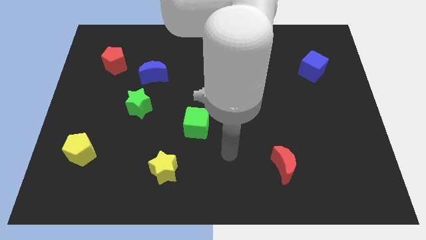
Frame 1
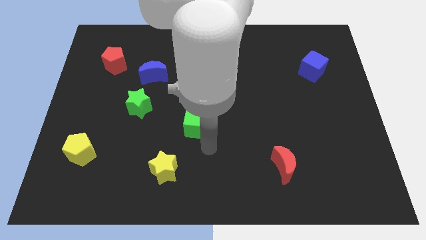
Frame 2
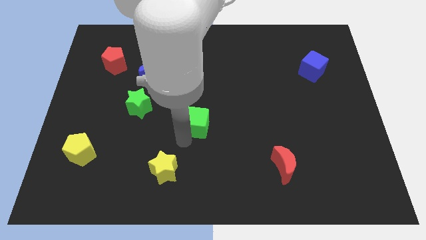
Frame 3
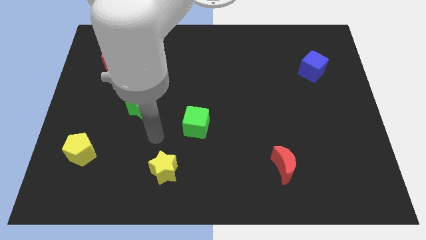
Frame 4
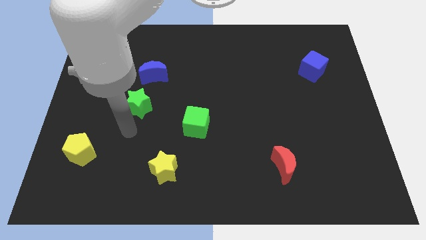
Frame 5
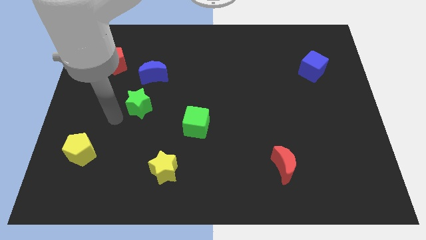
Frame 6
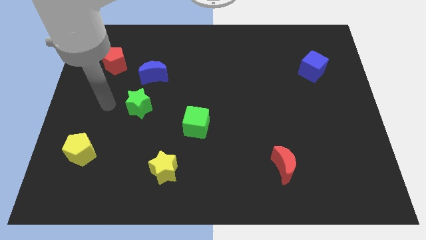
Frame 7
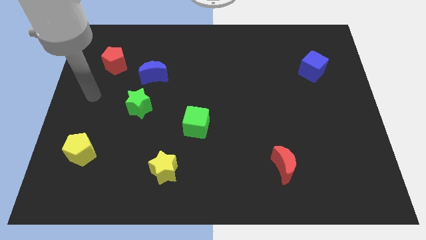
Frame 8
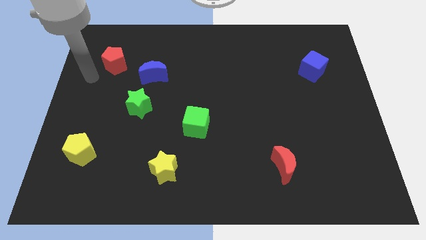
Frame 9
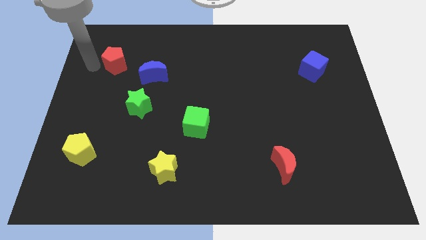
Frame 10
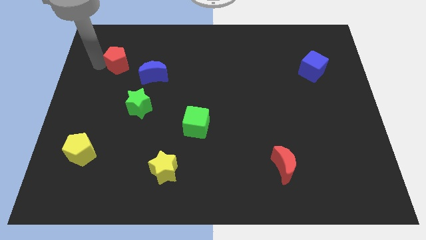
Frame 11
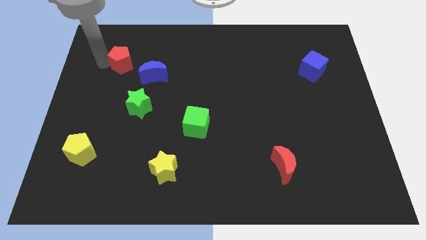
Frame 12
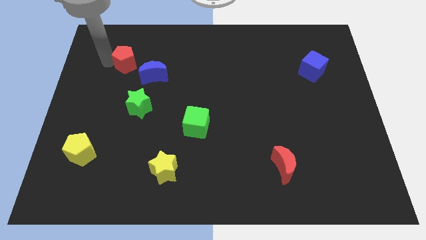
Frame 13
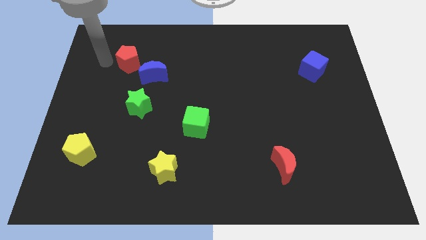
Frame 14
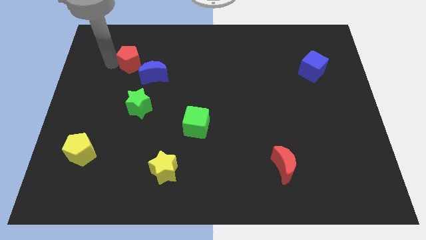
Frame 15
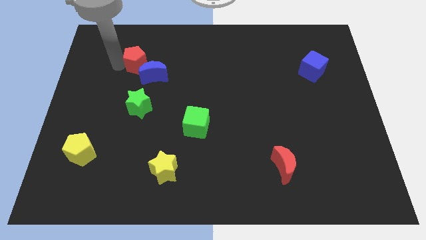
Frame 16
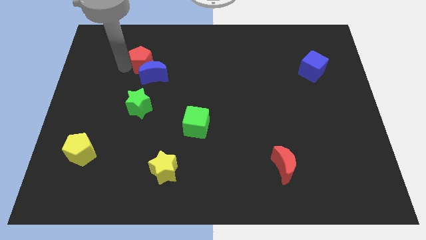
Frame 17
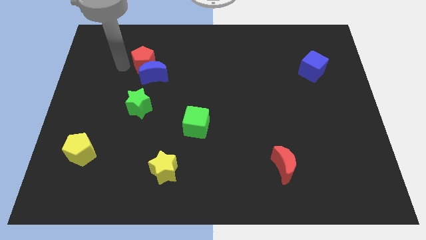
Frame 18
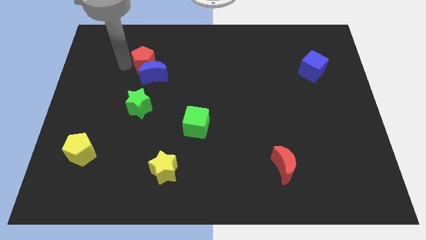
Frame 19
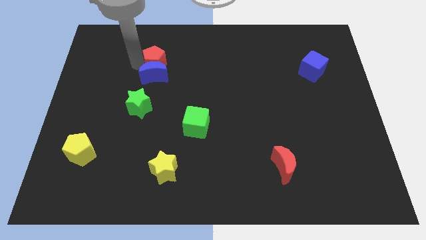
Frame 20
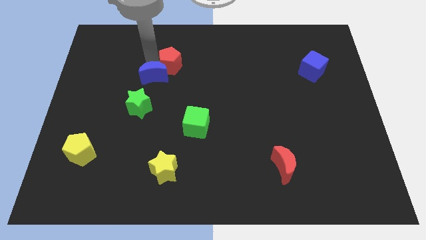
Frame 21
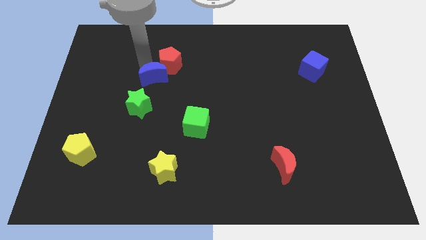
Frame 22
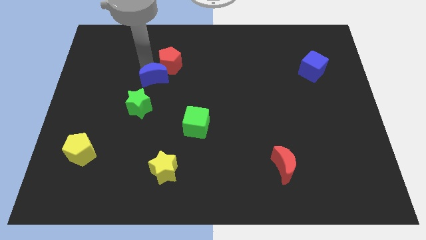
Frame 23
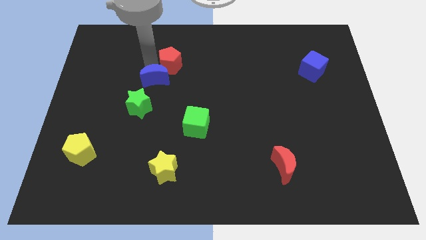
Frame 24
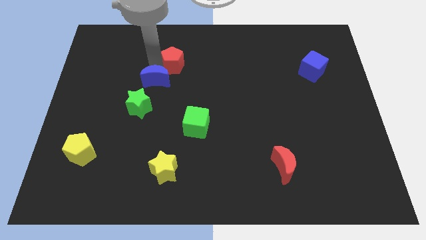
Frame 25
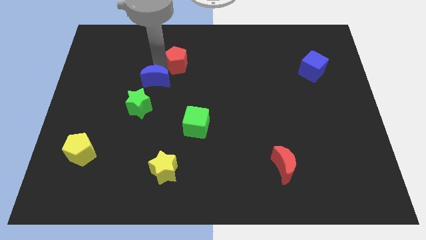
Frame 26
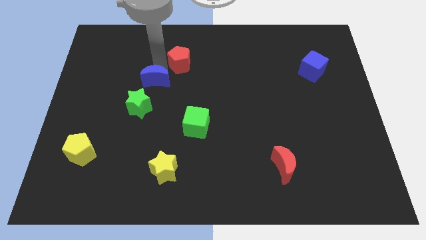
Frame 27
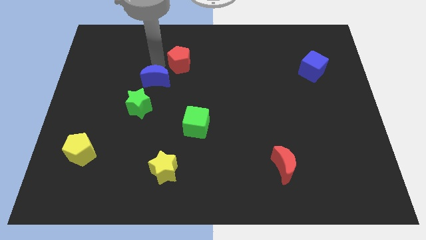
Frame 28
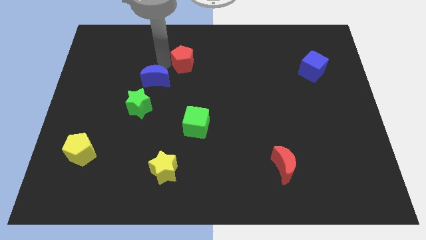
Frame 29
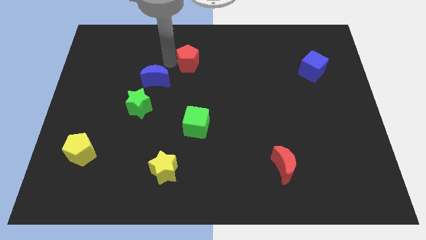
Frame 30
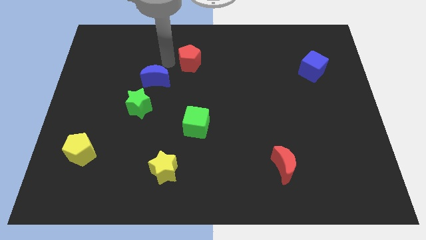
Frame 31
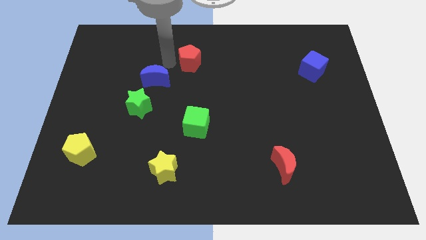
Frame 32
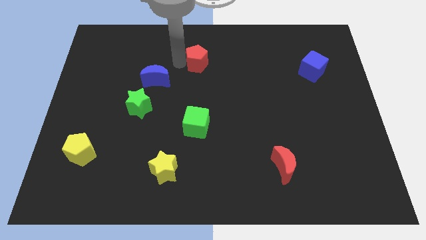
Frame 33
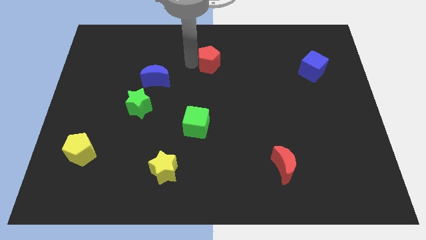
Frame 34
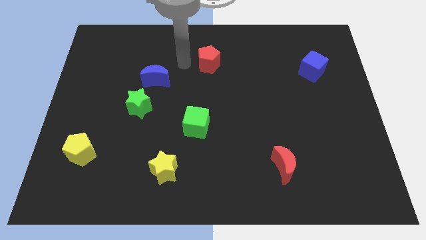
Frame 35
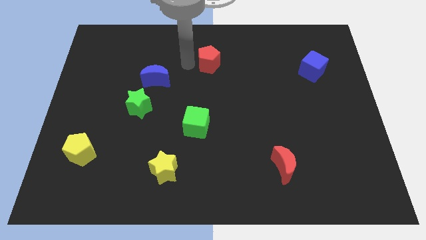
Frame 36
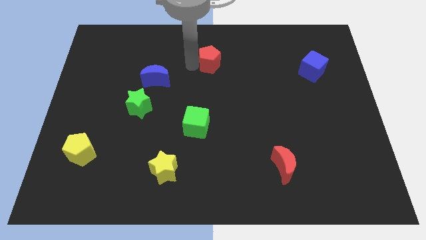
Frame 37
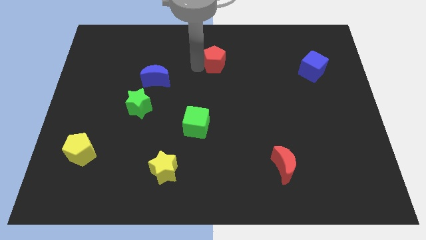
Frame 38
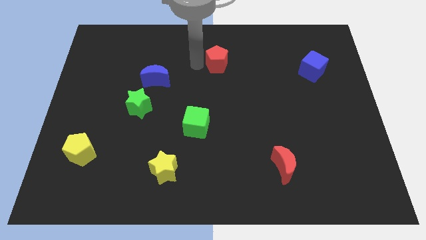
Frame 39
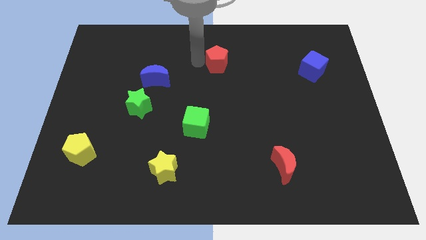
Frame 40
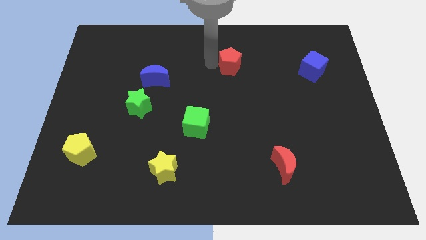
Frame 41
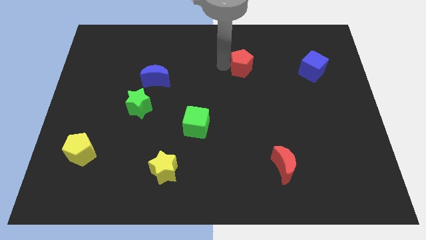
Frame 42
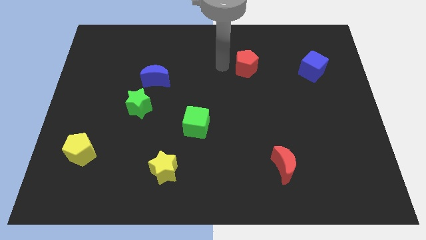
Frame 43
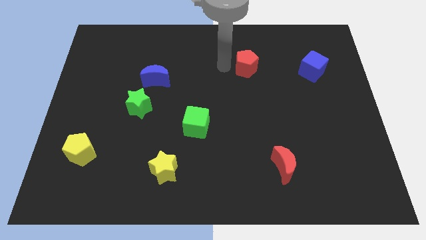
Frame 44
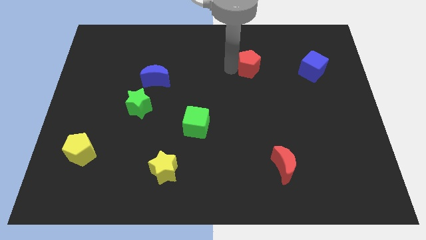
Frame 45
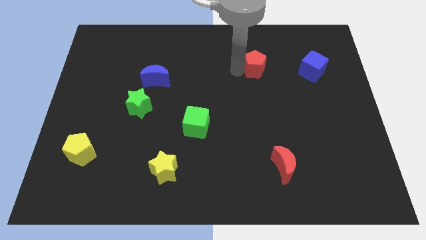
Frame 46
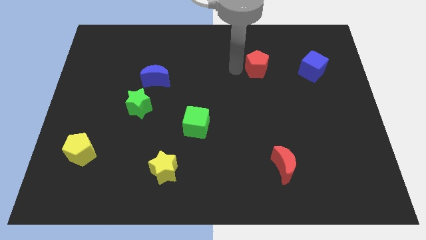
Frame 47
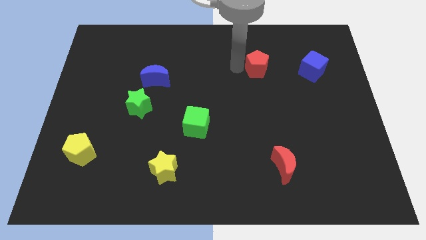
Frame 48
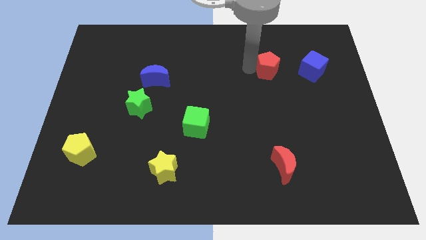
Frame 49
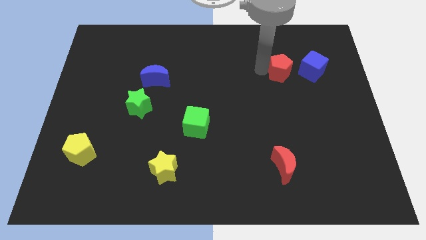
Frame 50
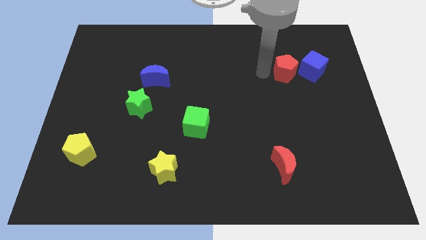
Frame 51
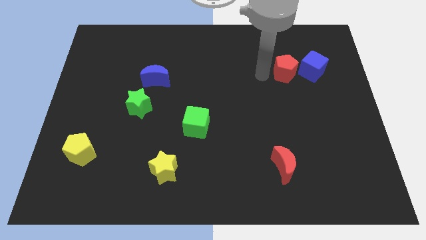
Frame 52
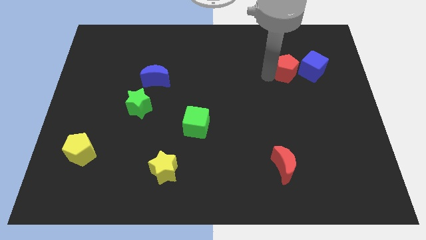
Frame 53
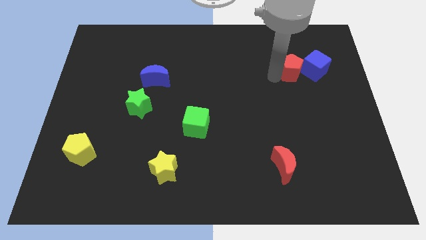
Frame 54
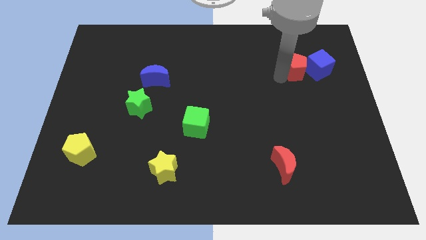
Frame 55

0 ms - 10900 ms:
put the red pentagon towards the blue cube

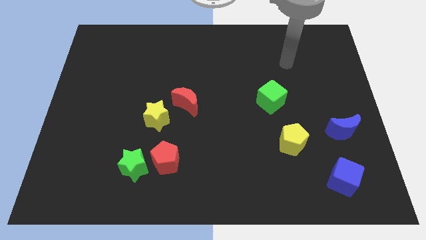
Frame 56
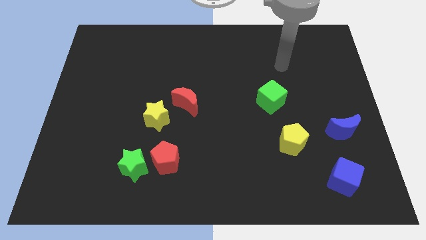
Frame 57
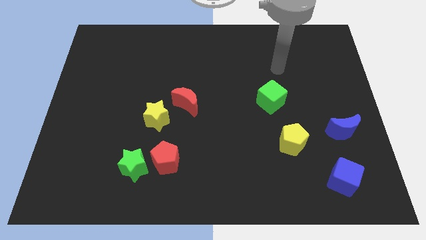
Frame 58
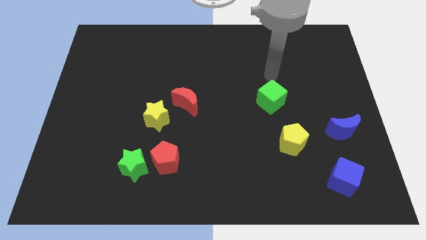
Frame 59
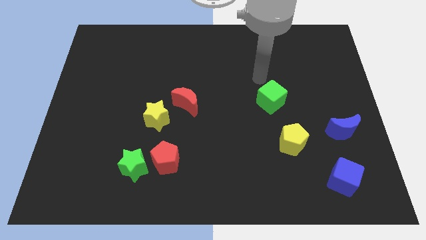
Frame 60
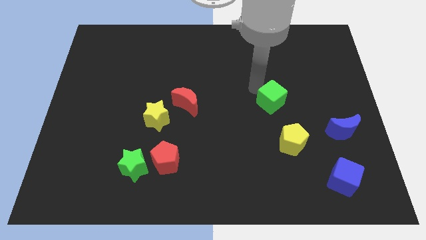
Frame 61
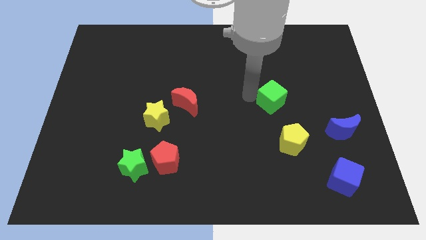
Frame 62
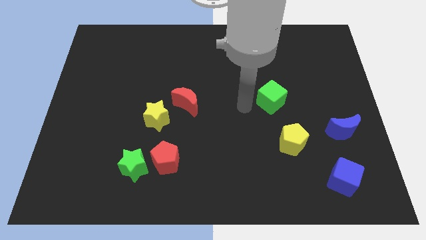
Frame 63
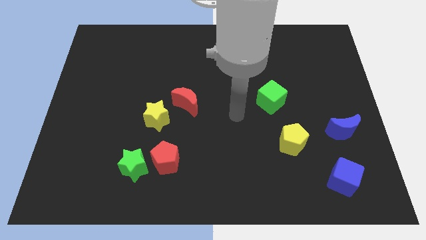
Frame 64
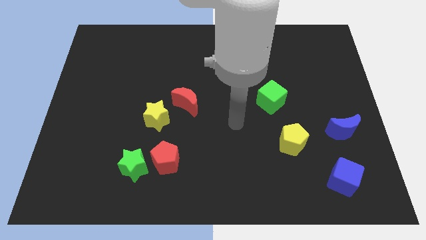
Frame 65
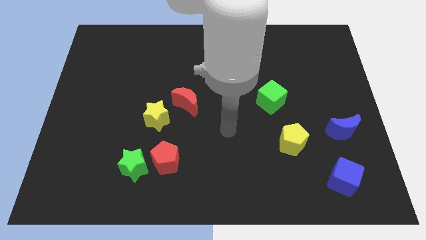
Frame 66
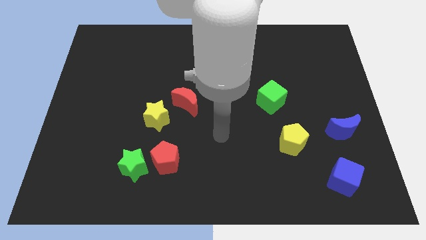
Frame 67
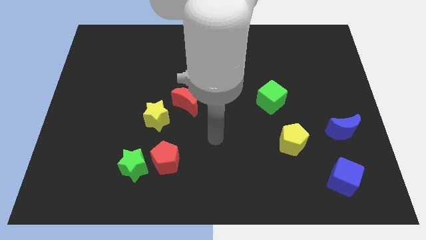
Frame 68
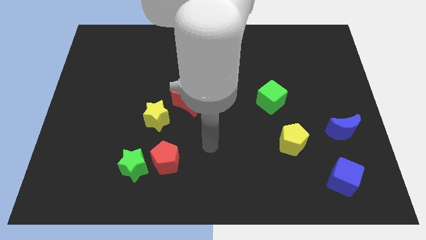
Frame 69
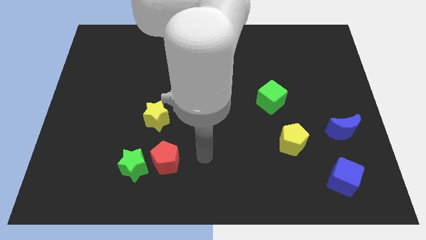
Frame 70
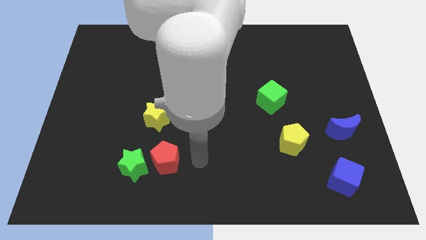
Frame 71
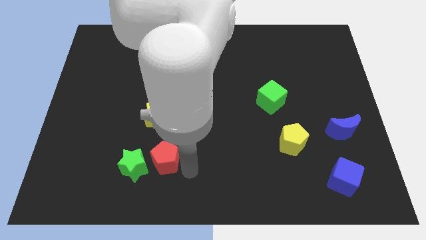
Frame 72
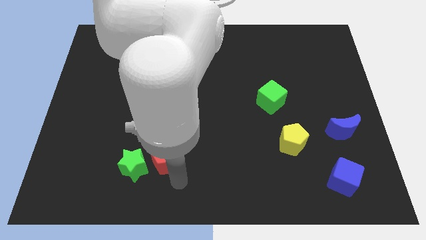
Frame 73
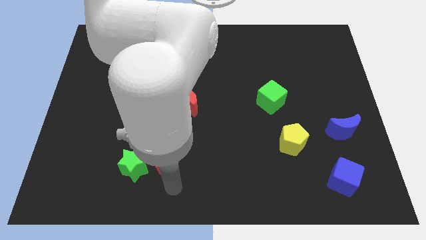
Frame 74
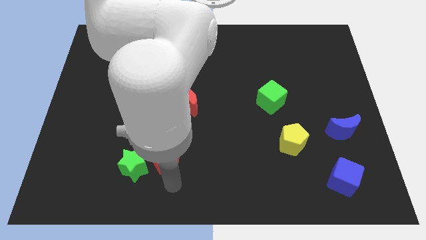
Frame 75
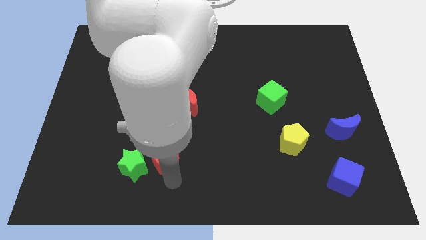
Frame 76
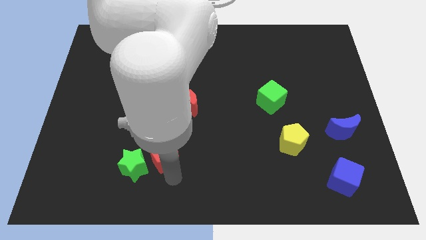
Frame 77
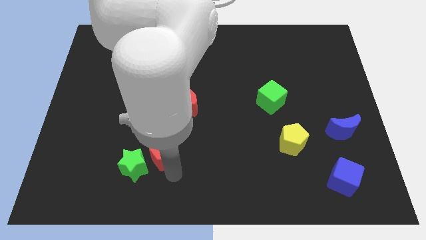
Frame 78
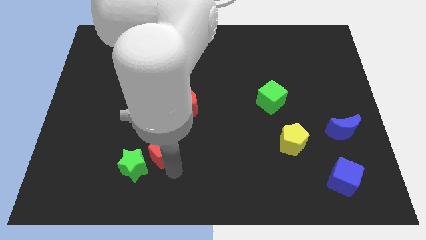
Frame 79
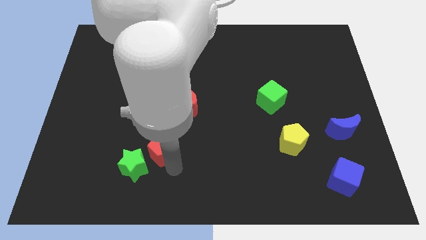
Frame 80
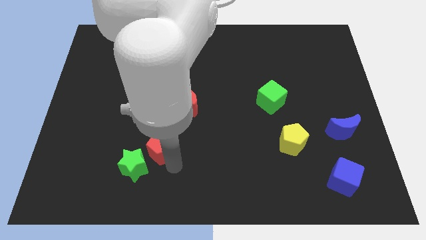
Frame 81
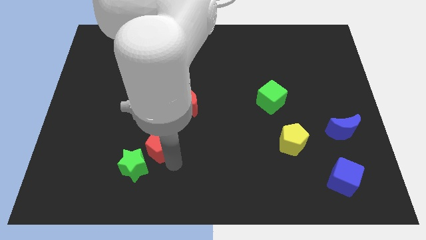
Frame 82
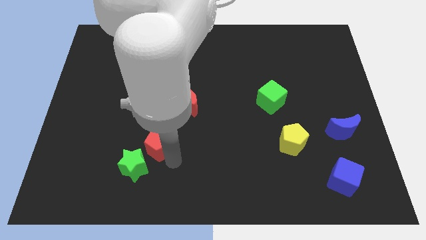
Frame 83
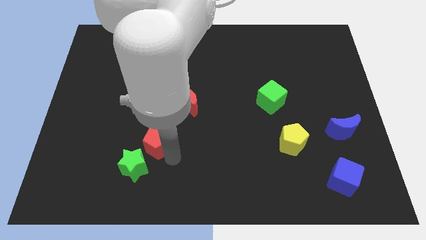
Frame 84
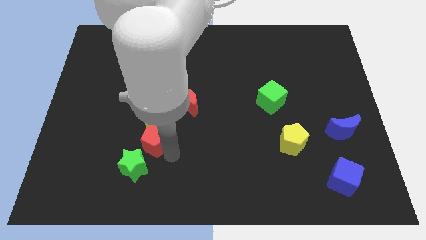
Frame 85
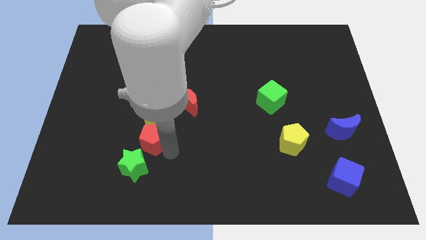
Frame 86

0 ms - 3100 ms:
slide the red pentagon towards the yellow star
